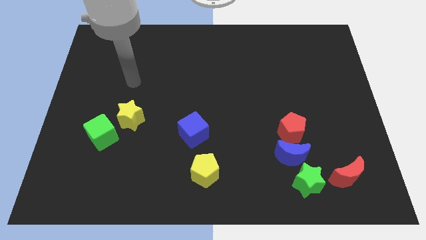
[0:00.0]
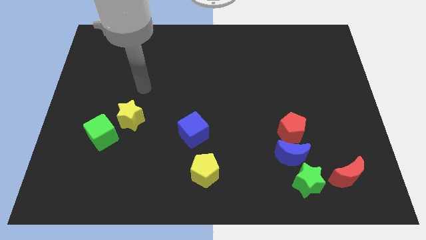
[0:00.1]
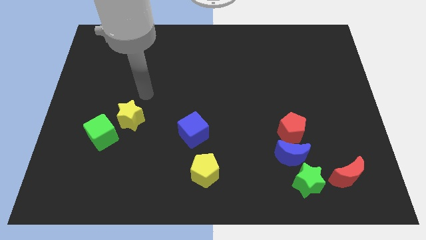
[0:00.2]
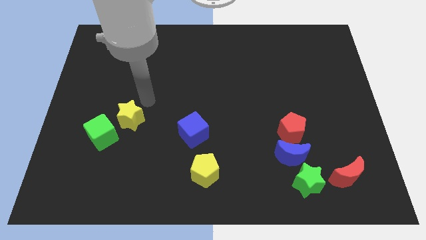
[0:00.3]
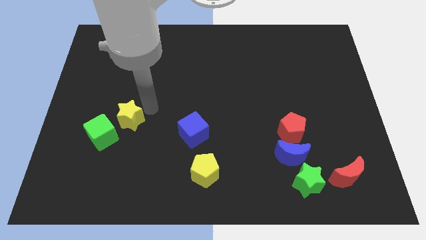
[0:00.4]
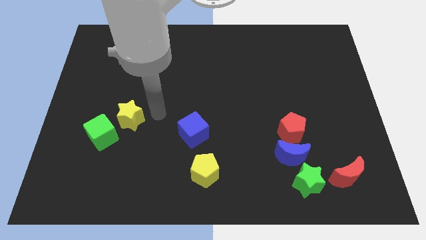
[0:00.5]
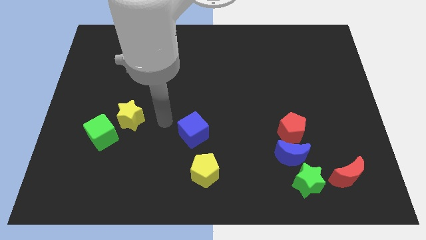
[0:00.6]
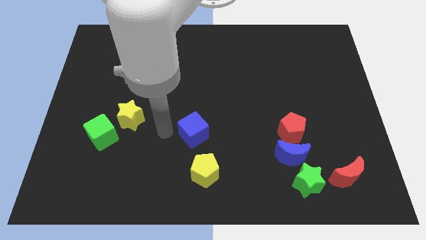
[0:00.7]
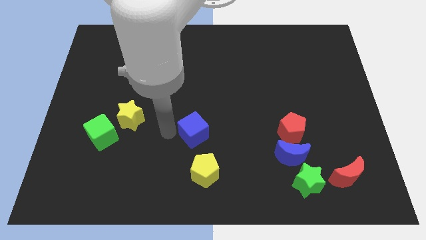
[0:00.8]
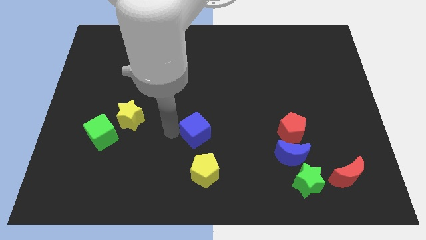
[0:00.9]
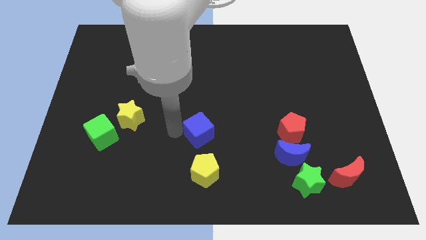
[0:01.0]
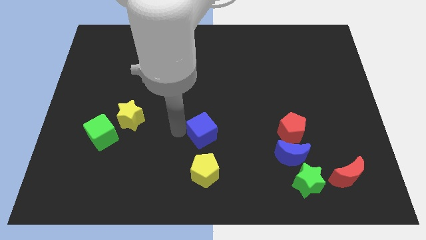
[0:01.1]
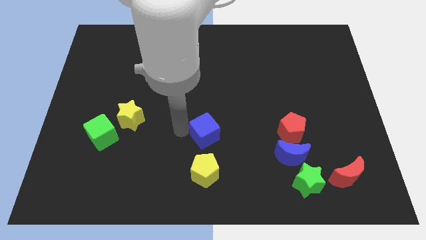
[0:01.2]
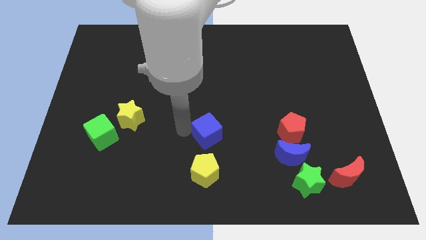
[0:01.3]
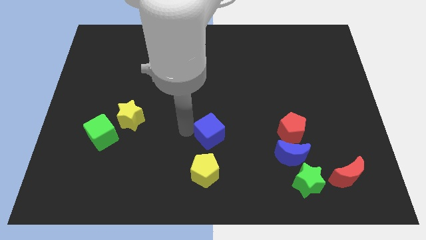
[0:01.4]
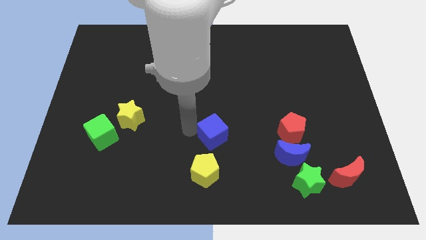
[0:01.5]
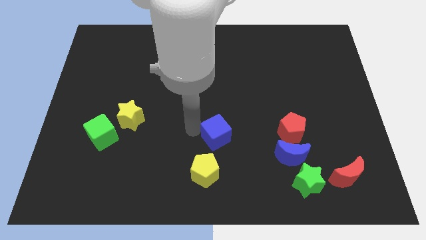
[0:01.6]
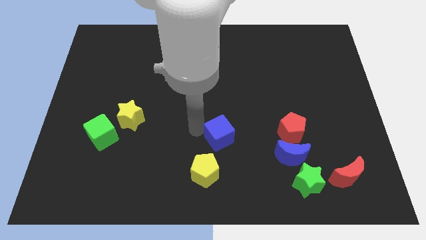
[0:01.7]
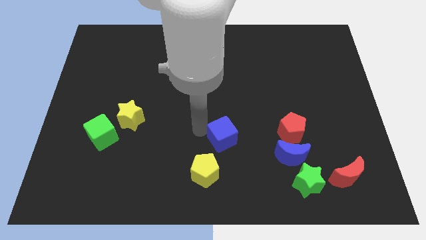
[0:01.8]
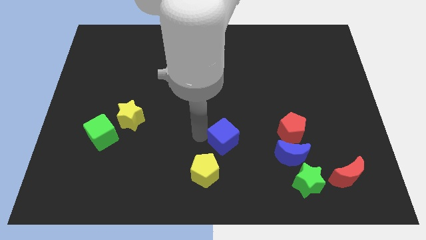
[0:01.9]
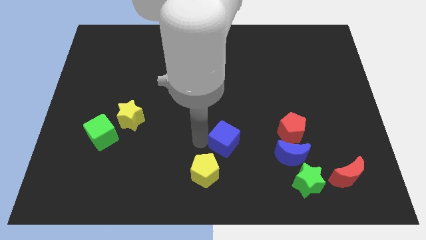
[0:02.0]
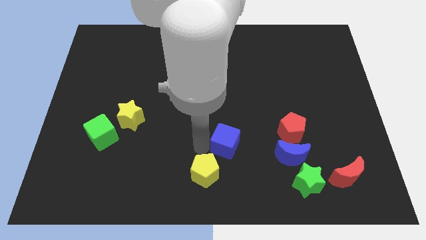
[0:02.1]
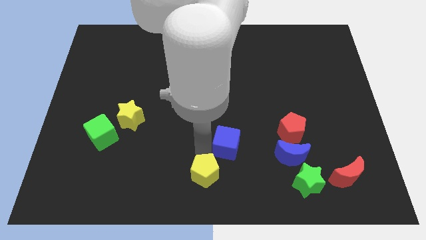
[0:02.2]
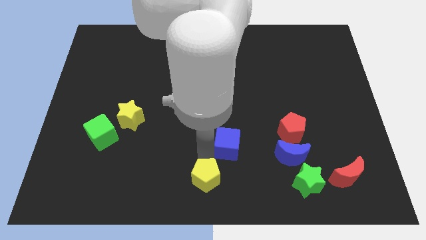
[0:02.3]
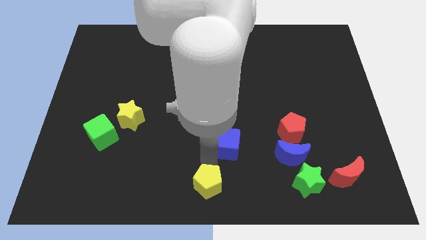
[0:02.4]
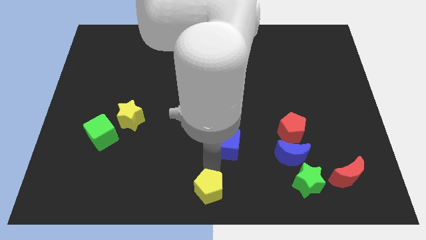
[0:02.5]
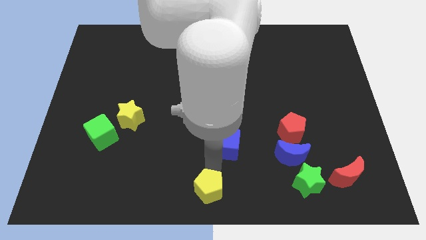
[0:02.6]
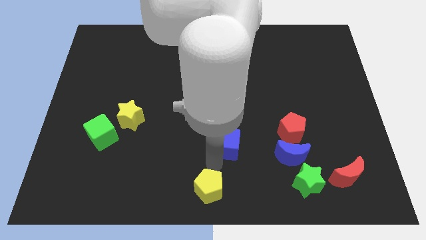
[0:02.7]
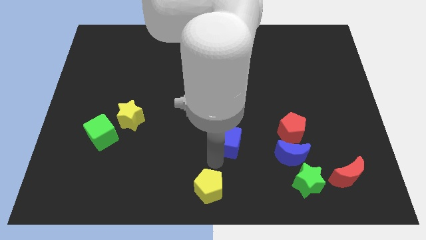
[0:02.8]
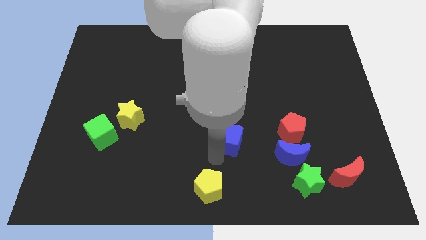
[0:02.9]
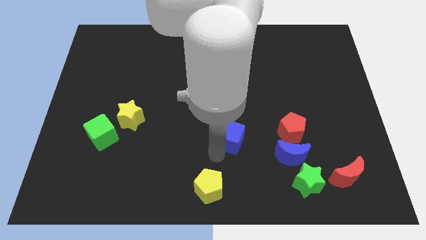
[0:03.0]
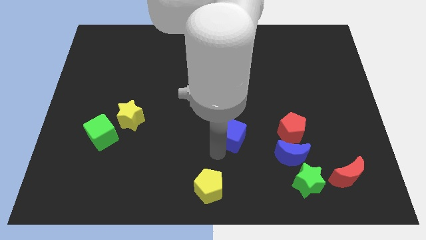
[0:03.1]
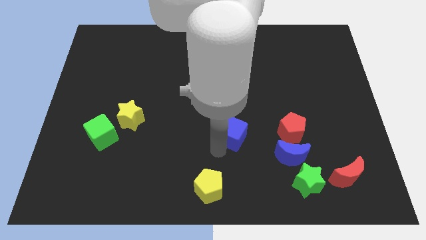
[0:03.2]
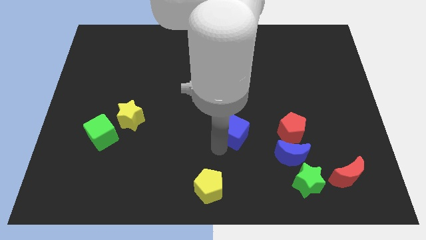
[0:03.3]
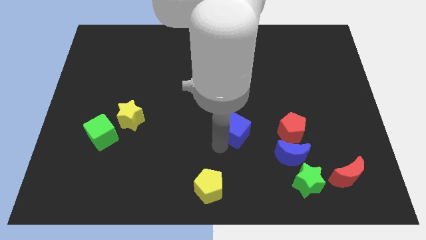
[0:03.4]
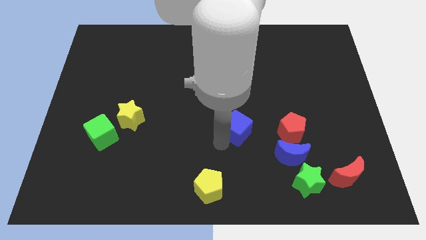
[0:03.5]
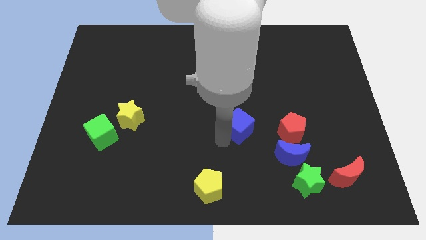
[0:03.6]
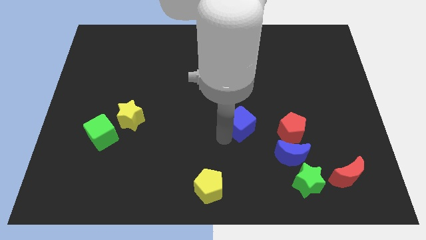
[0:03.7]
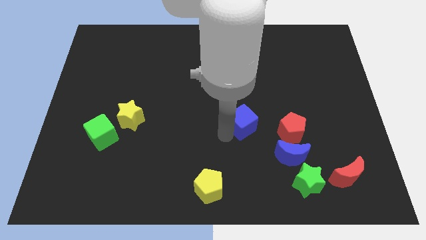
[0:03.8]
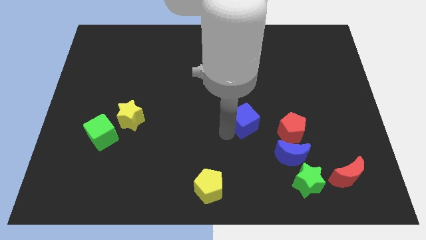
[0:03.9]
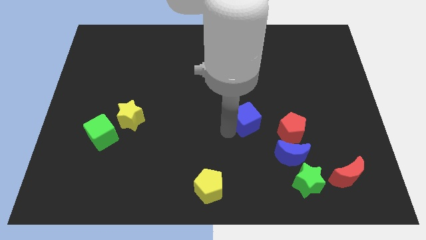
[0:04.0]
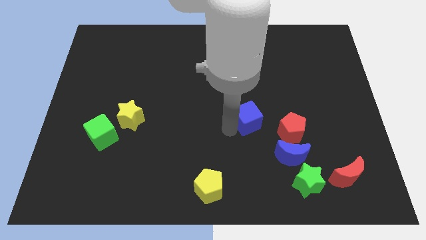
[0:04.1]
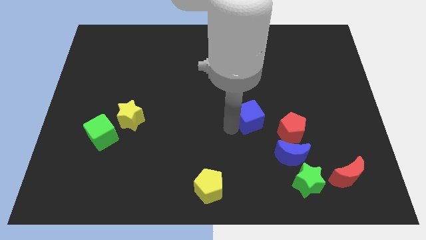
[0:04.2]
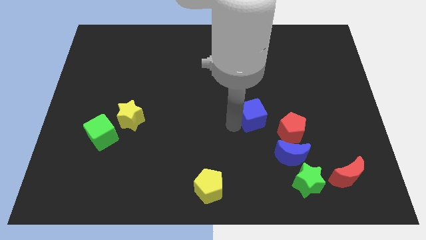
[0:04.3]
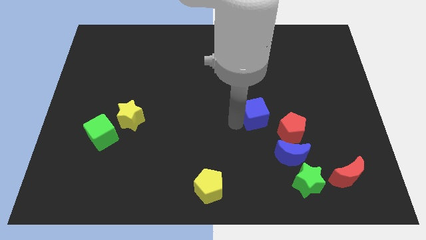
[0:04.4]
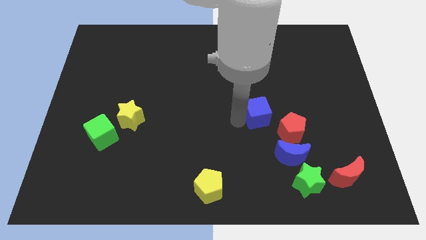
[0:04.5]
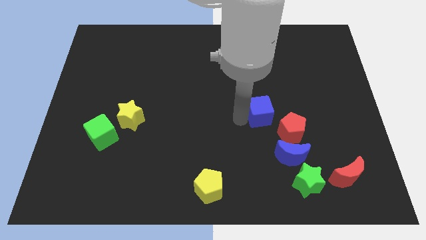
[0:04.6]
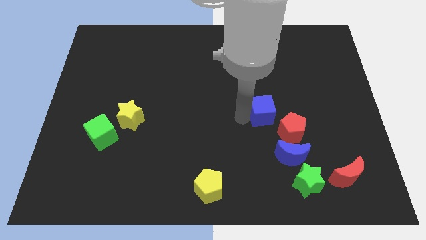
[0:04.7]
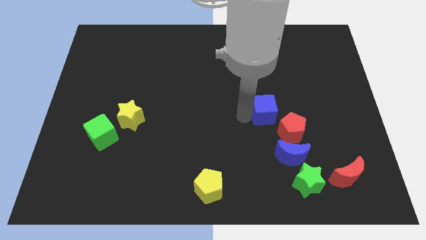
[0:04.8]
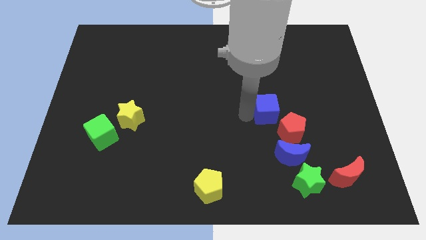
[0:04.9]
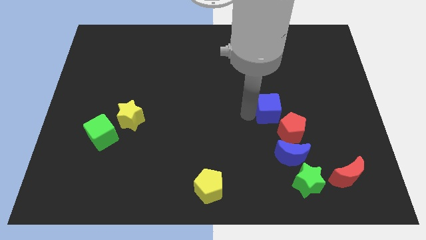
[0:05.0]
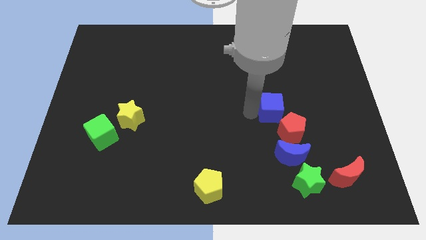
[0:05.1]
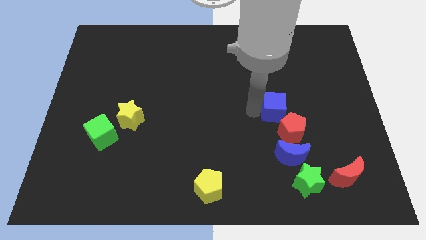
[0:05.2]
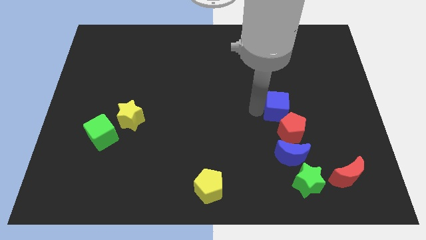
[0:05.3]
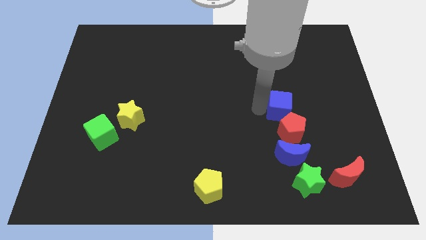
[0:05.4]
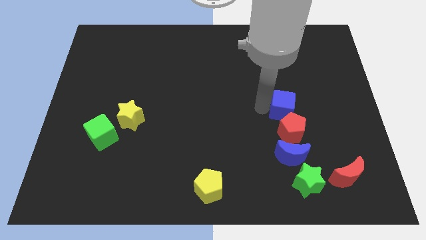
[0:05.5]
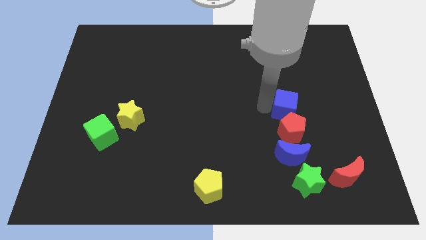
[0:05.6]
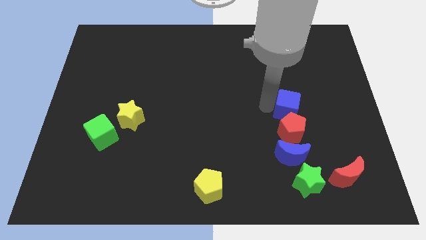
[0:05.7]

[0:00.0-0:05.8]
slide the blue cube to the right

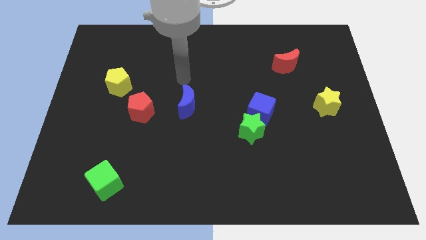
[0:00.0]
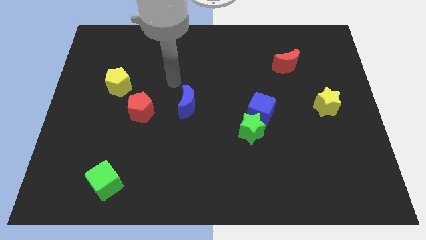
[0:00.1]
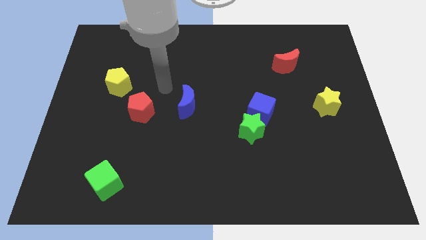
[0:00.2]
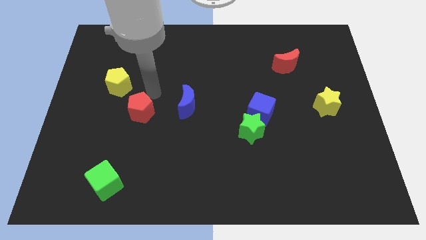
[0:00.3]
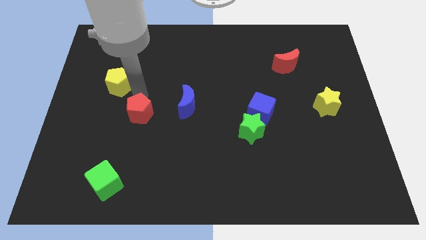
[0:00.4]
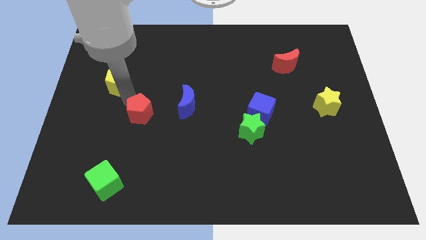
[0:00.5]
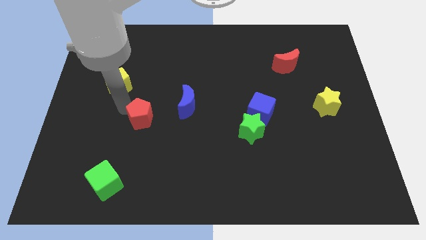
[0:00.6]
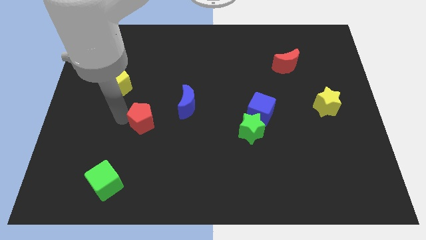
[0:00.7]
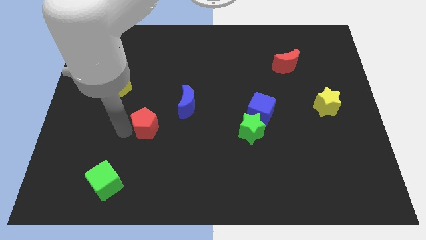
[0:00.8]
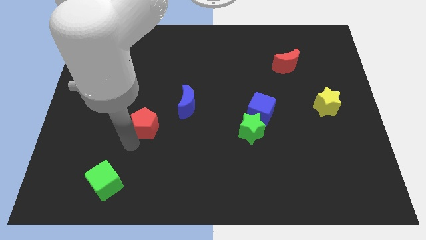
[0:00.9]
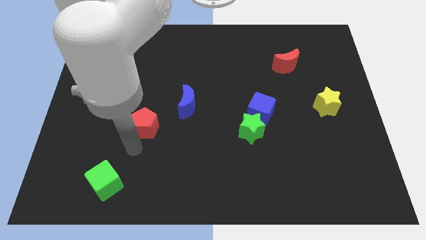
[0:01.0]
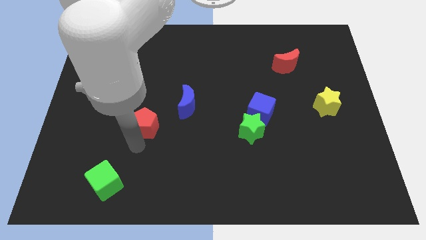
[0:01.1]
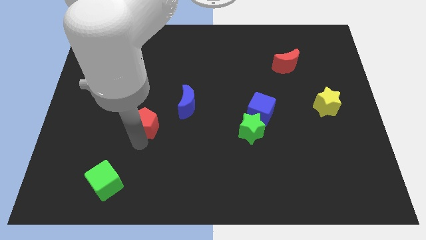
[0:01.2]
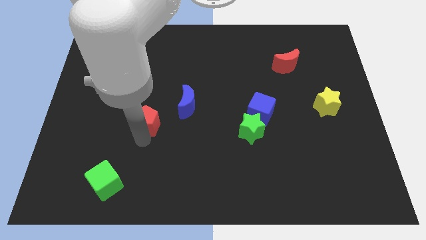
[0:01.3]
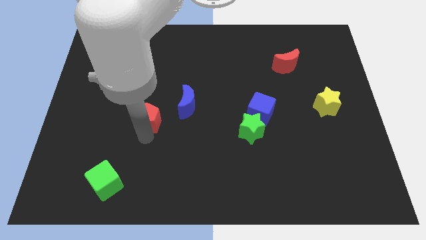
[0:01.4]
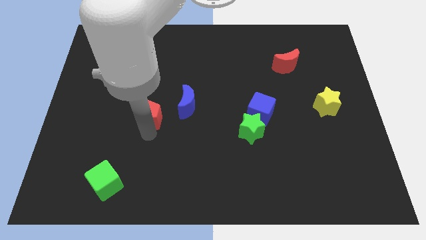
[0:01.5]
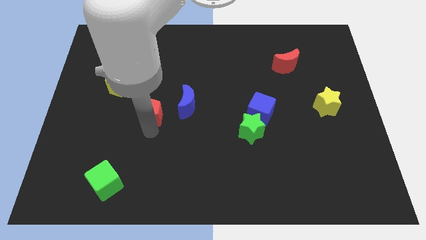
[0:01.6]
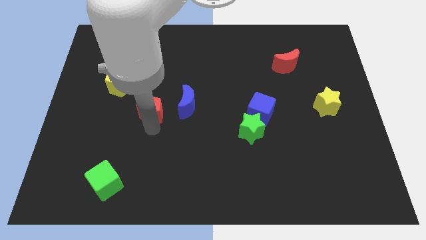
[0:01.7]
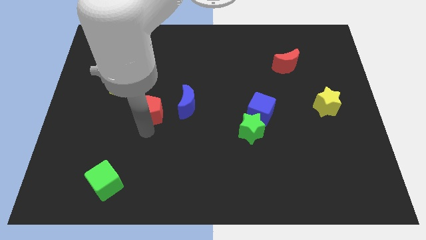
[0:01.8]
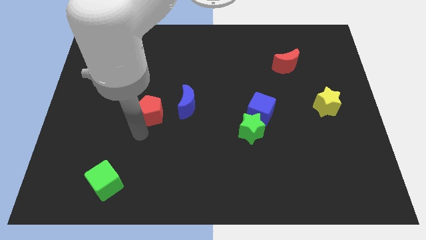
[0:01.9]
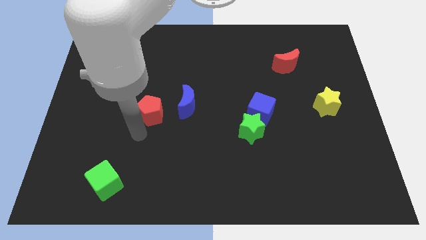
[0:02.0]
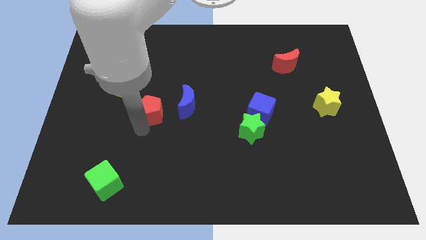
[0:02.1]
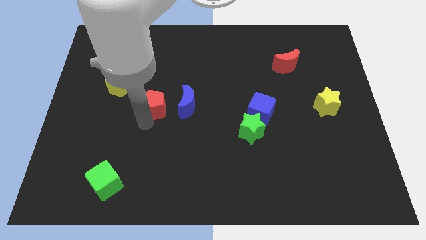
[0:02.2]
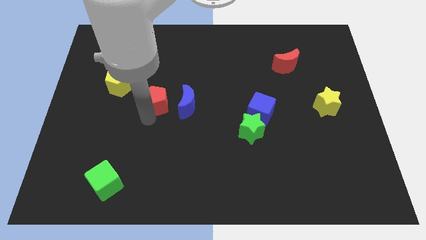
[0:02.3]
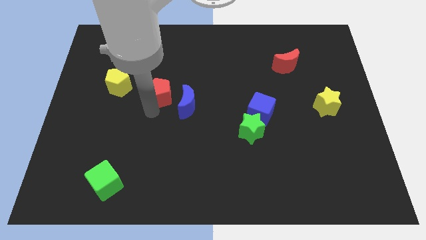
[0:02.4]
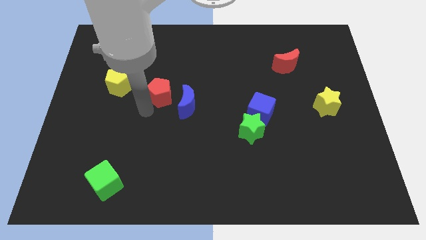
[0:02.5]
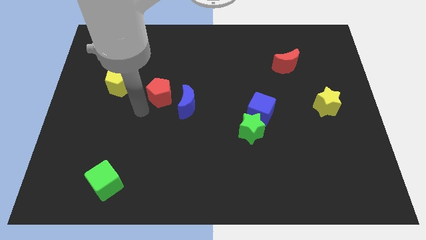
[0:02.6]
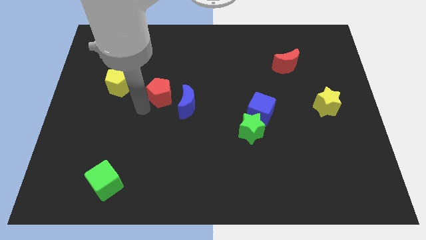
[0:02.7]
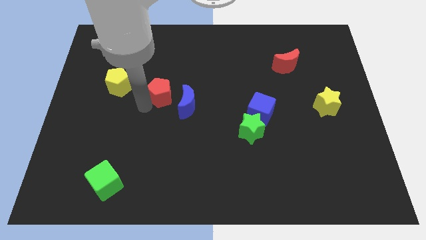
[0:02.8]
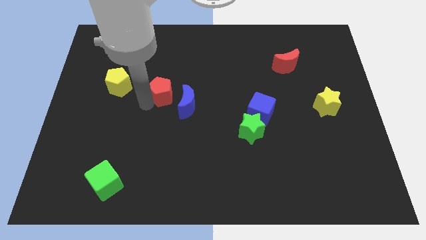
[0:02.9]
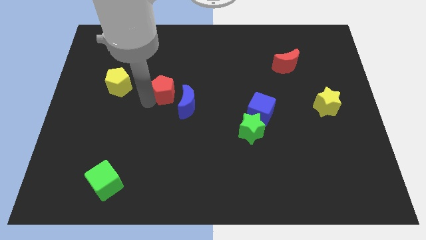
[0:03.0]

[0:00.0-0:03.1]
push the red pentagon somewhat up and to the right diagonally
